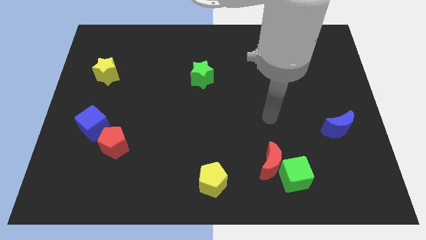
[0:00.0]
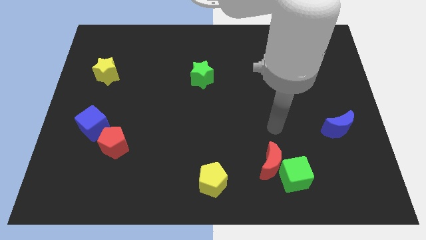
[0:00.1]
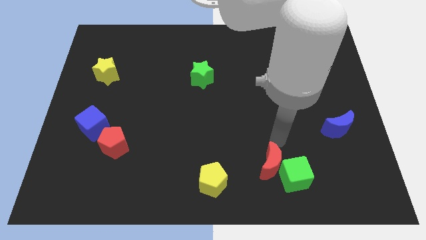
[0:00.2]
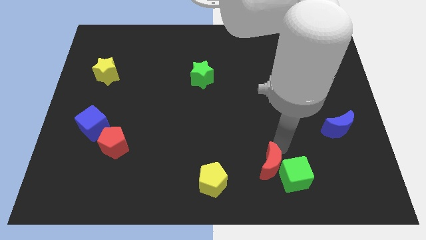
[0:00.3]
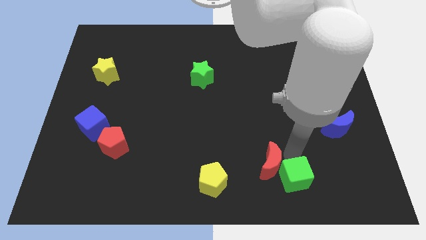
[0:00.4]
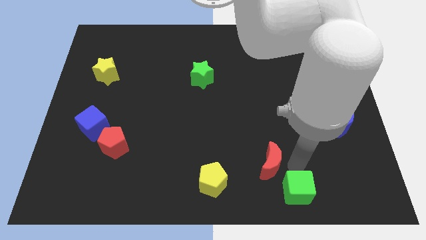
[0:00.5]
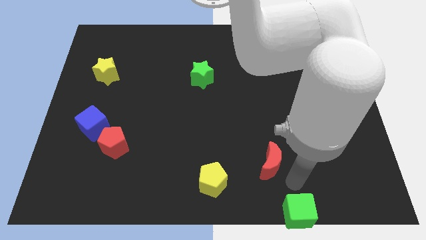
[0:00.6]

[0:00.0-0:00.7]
separate the red moon from the green cube

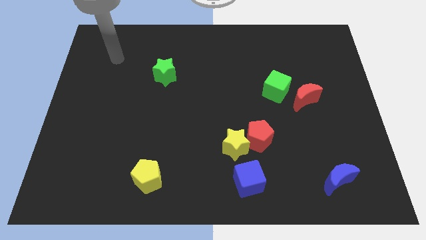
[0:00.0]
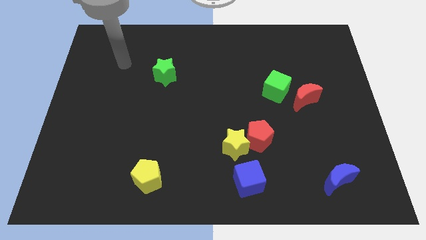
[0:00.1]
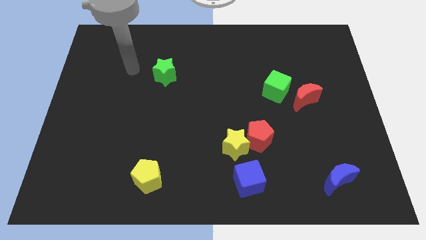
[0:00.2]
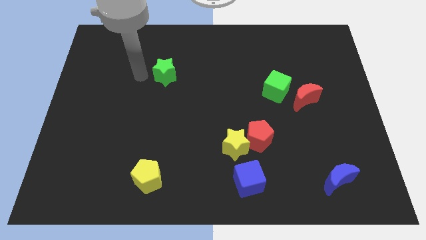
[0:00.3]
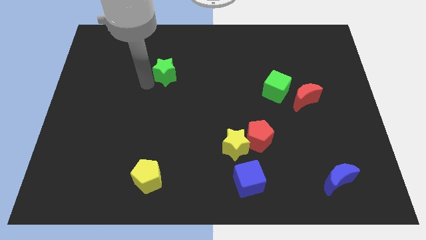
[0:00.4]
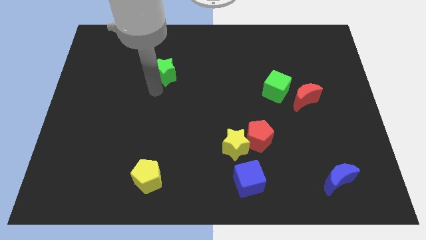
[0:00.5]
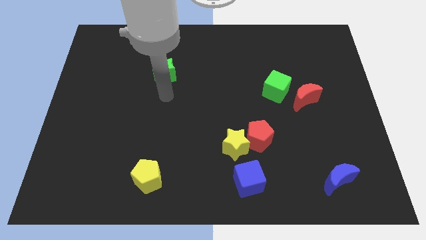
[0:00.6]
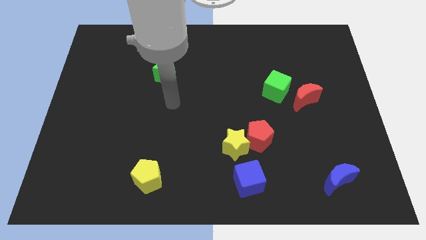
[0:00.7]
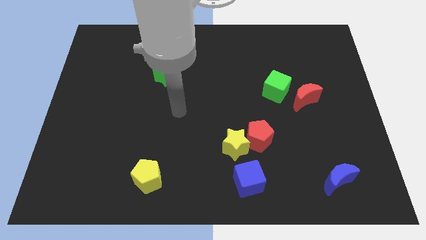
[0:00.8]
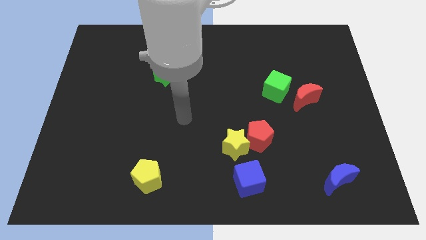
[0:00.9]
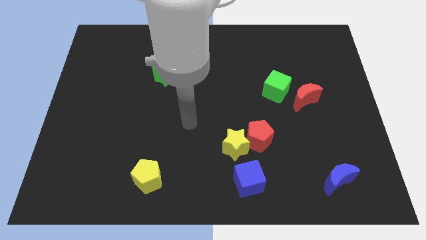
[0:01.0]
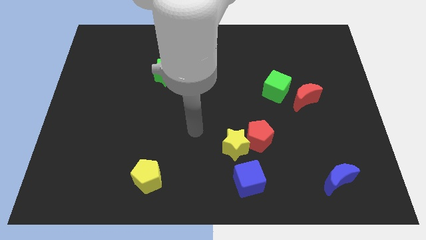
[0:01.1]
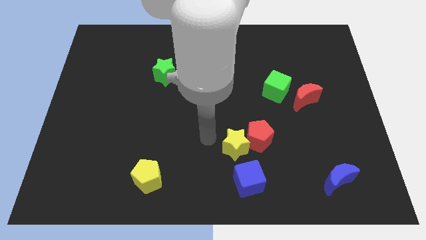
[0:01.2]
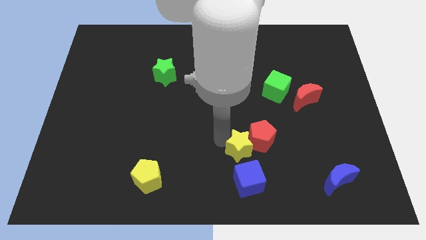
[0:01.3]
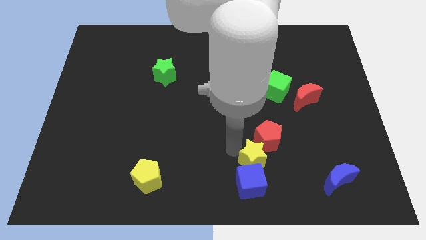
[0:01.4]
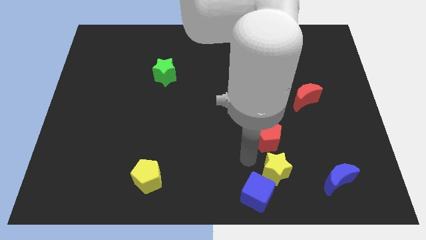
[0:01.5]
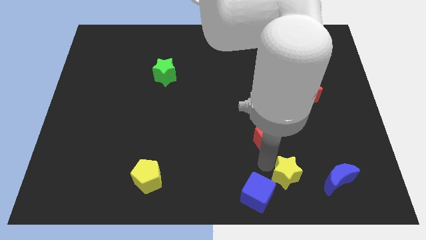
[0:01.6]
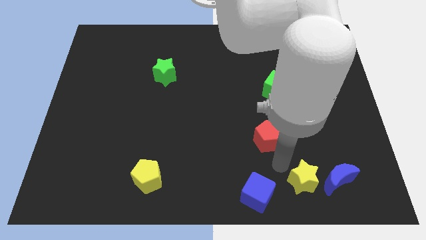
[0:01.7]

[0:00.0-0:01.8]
separate the red pentagon from the yellow star

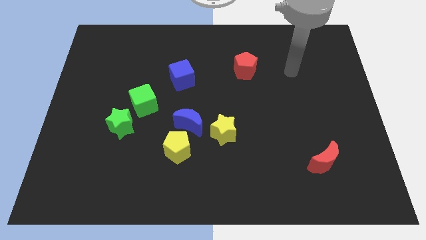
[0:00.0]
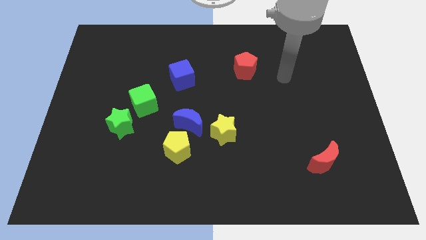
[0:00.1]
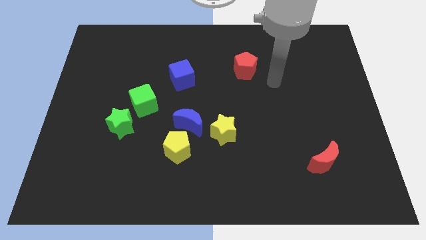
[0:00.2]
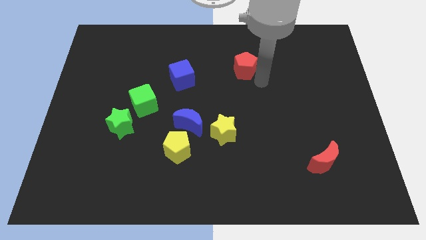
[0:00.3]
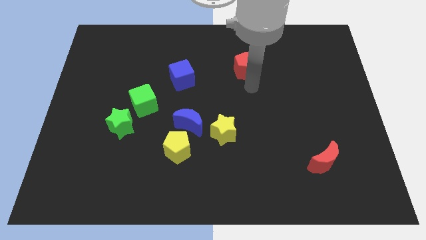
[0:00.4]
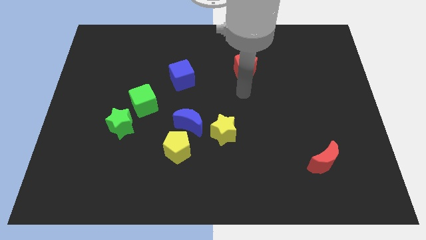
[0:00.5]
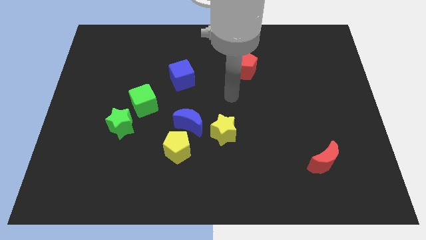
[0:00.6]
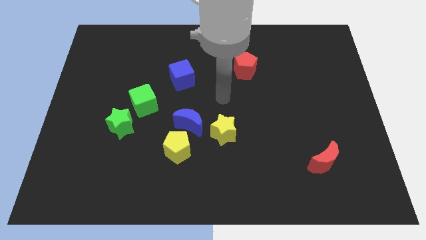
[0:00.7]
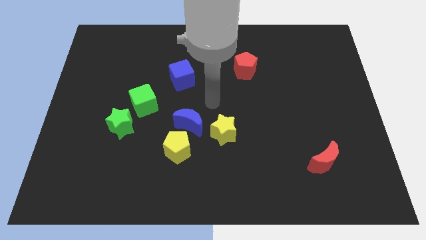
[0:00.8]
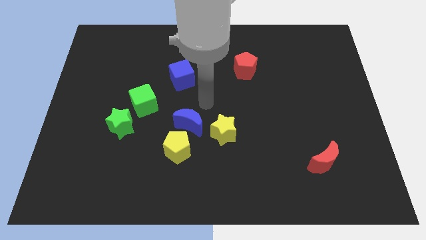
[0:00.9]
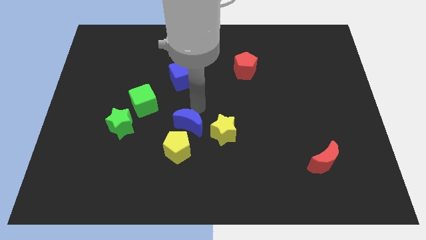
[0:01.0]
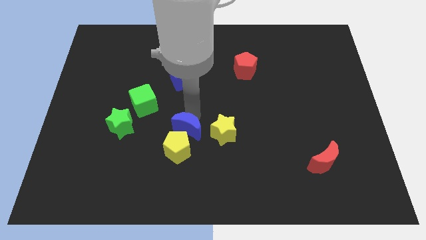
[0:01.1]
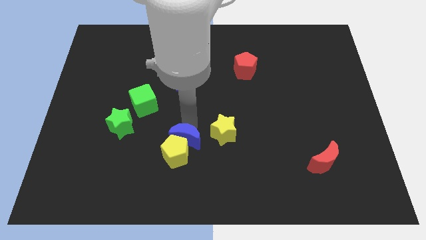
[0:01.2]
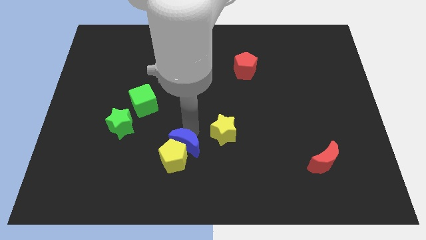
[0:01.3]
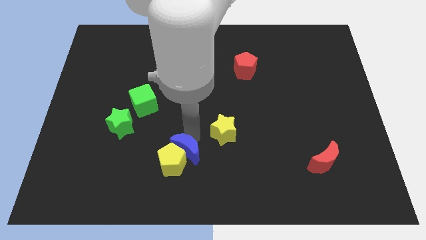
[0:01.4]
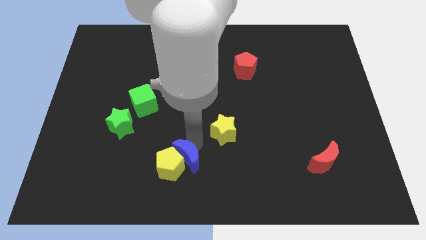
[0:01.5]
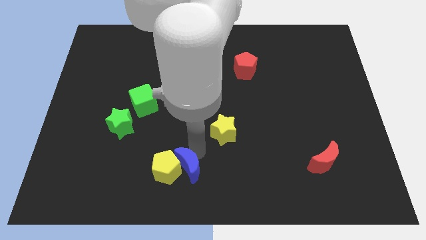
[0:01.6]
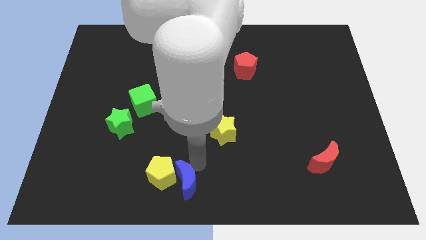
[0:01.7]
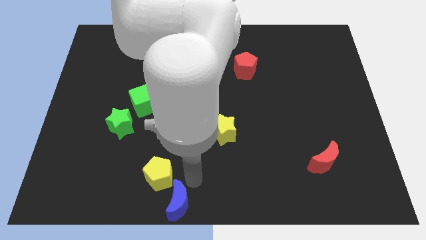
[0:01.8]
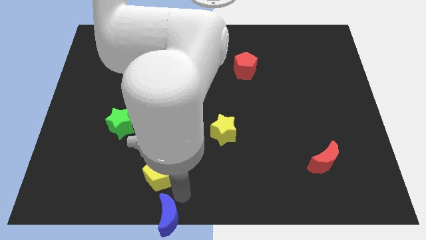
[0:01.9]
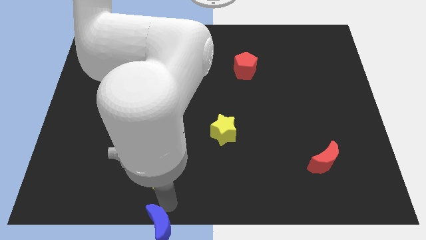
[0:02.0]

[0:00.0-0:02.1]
separate the yellow pentagon from the blue moon

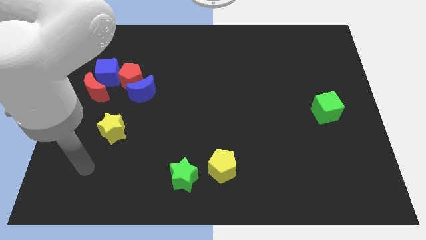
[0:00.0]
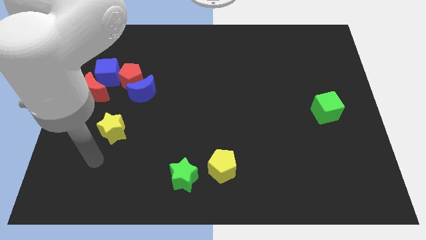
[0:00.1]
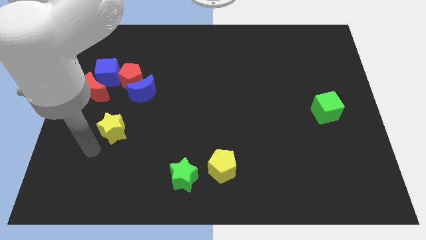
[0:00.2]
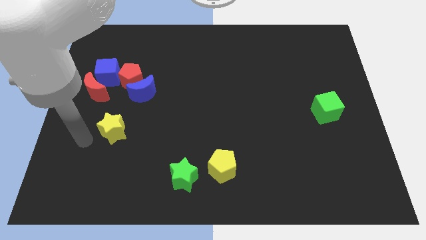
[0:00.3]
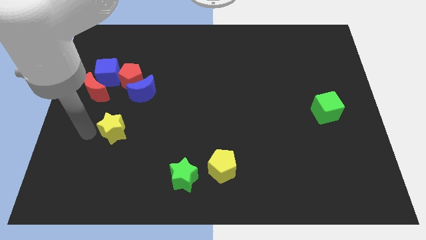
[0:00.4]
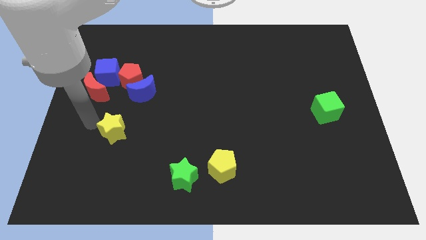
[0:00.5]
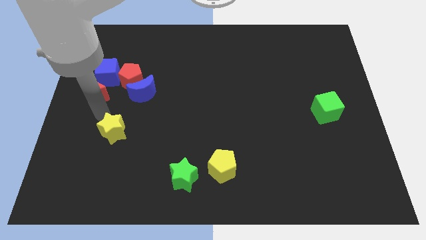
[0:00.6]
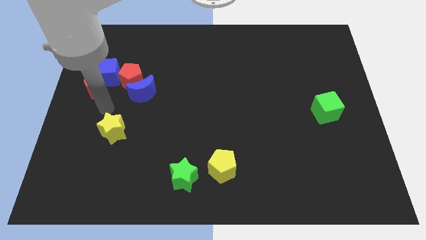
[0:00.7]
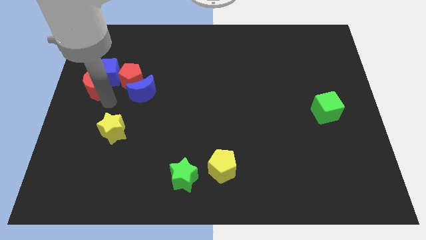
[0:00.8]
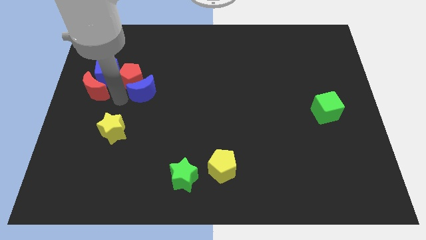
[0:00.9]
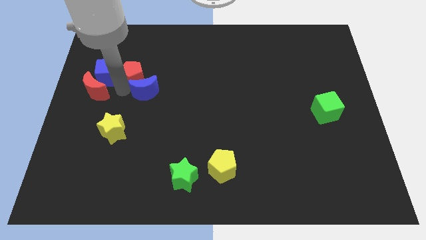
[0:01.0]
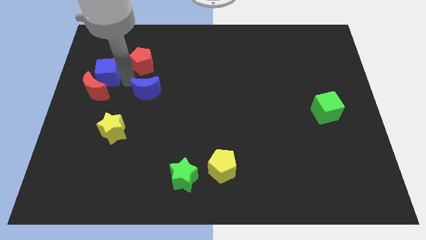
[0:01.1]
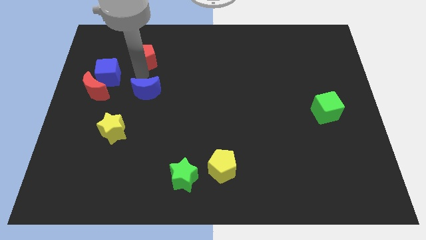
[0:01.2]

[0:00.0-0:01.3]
pull the blue moon apart from the red pentagon

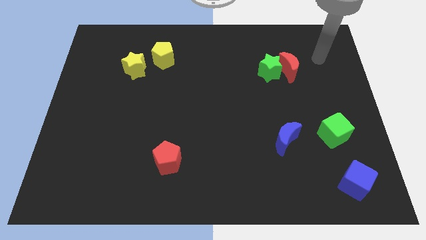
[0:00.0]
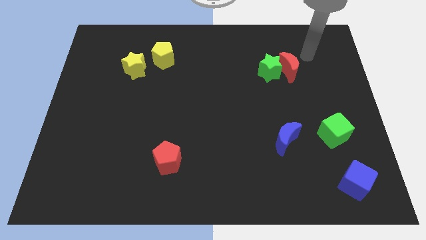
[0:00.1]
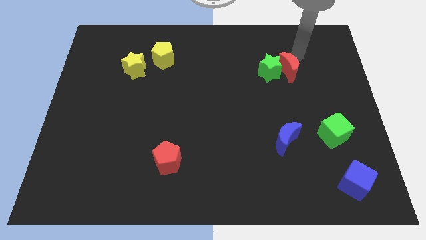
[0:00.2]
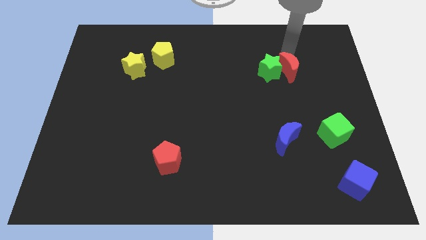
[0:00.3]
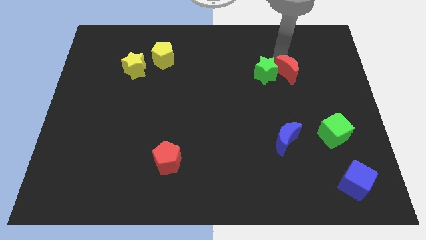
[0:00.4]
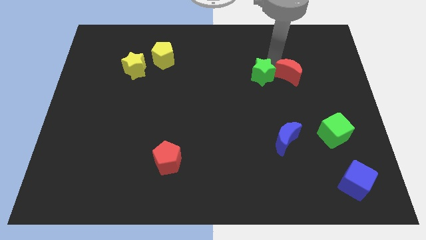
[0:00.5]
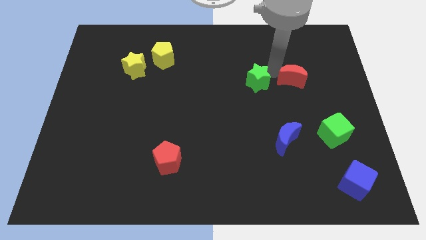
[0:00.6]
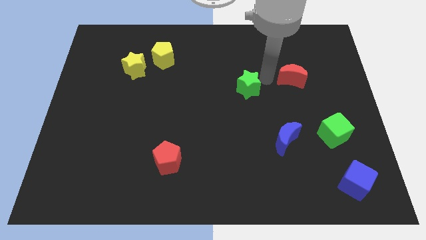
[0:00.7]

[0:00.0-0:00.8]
separate the red moon from the green star

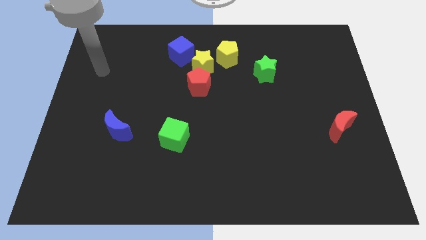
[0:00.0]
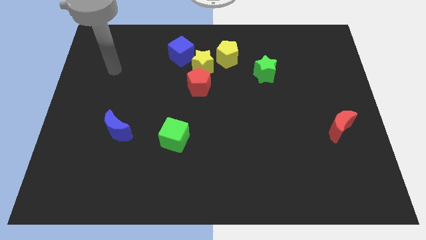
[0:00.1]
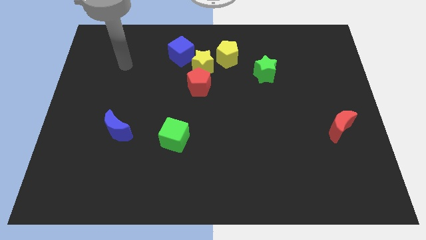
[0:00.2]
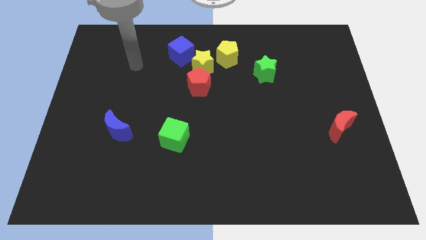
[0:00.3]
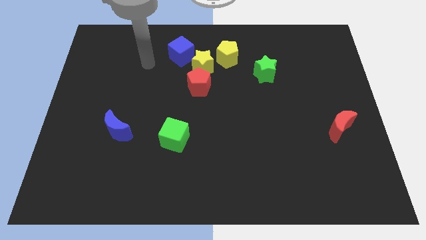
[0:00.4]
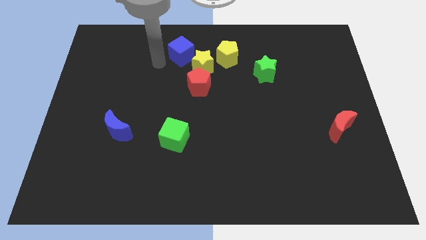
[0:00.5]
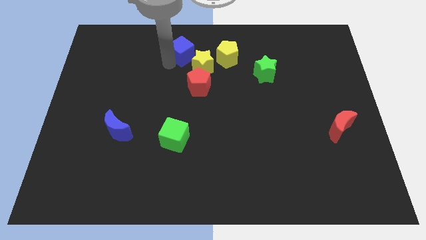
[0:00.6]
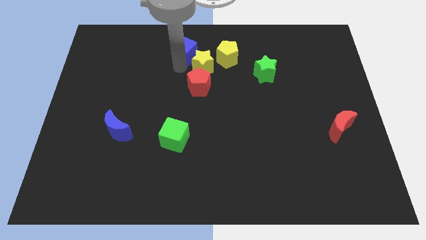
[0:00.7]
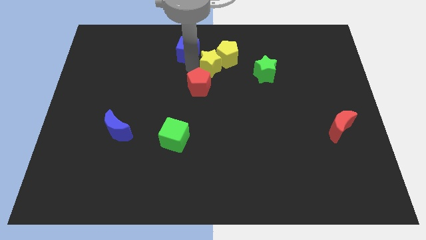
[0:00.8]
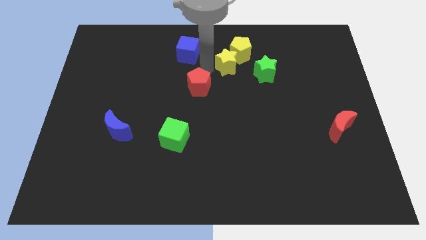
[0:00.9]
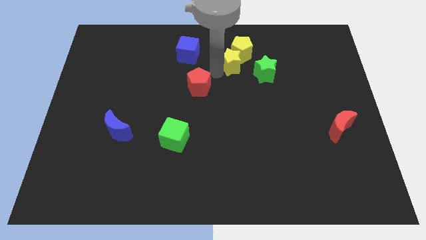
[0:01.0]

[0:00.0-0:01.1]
pull the red pentagon apart from the yellow star

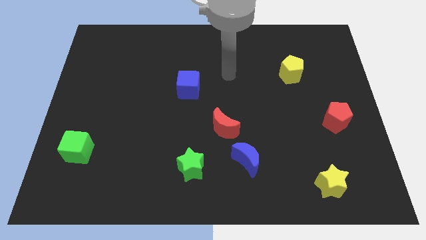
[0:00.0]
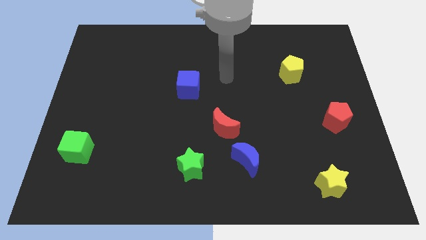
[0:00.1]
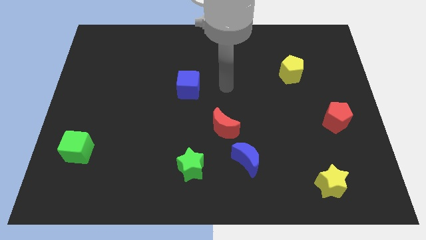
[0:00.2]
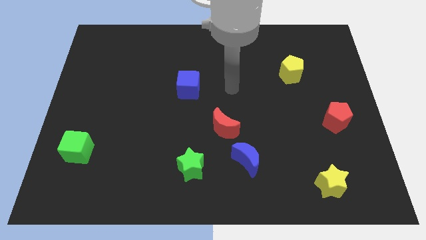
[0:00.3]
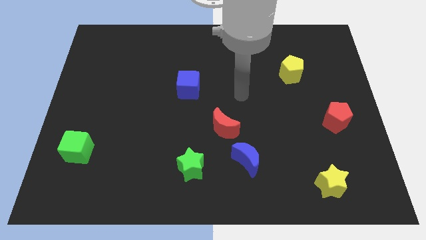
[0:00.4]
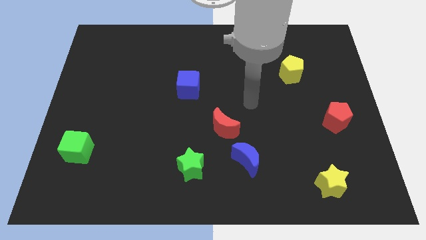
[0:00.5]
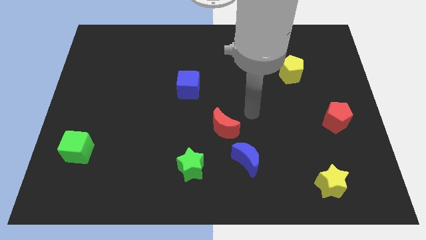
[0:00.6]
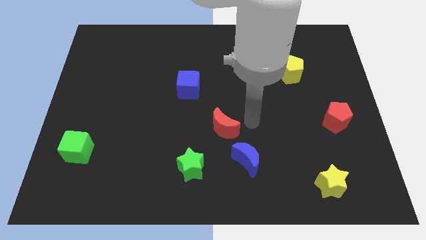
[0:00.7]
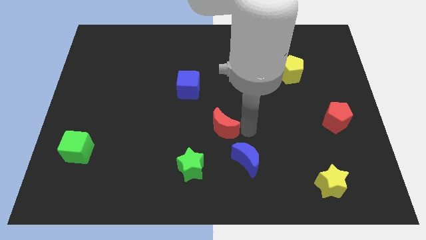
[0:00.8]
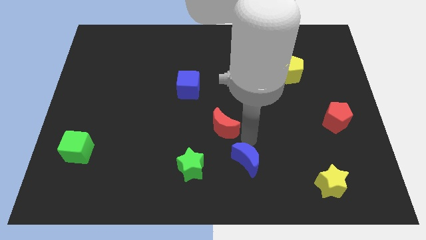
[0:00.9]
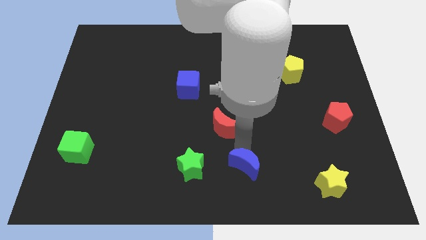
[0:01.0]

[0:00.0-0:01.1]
pull the red moon apart from the blue moon

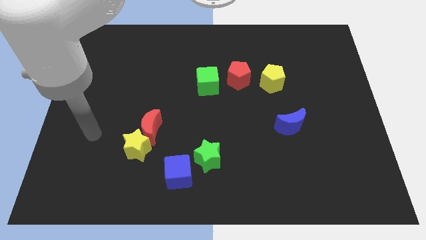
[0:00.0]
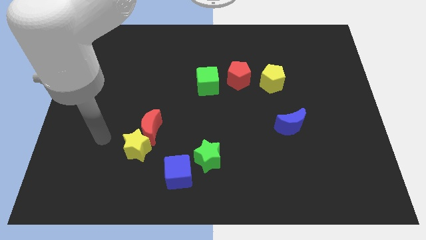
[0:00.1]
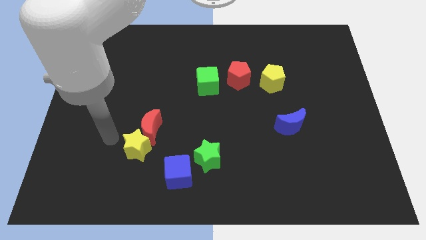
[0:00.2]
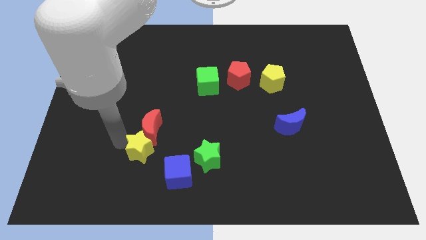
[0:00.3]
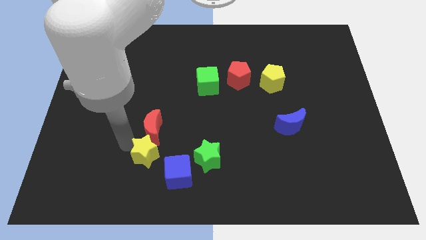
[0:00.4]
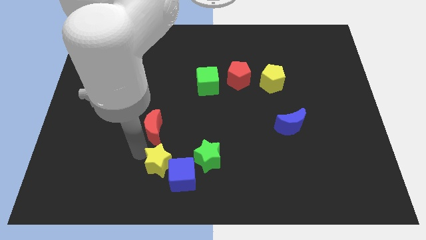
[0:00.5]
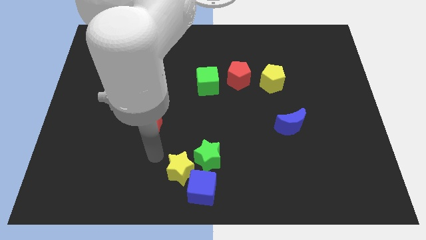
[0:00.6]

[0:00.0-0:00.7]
pull the red moon apart from the yellow star
